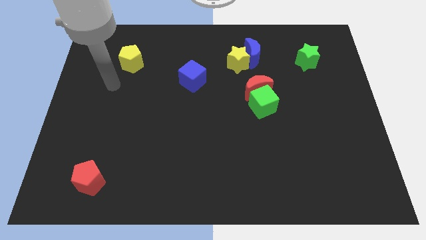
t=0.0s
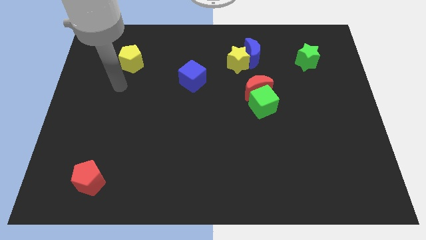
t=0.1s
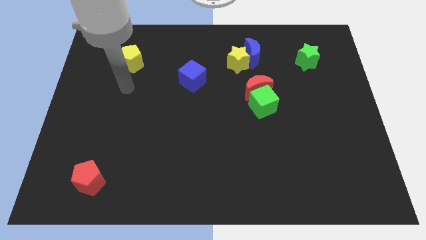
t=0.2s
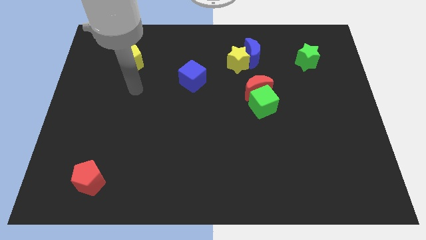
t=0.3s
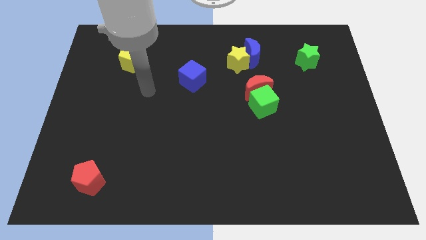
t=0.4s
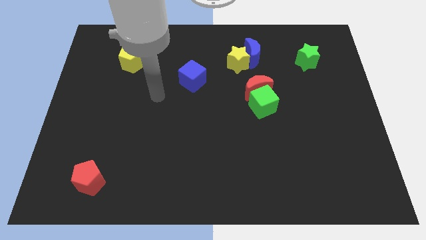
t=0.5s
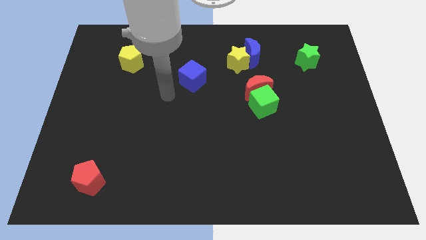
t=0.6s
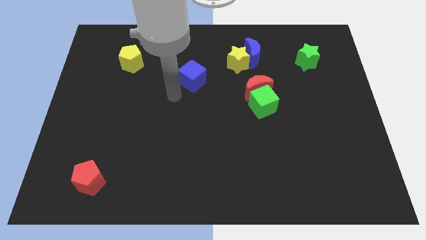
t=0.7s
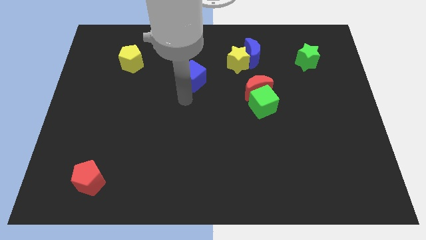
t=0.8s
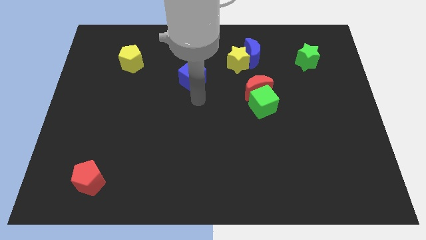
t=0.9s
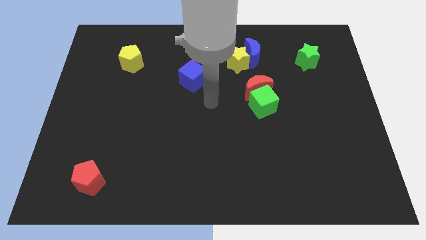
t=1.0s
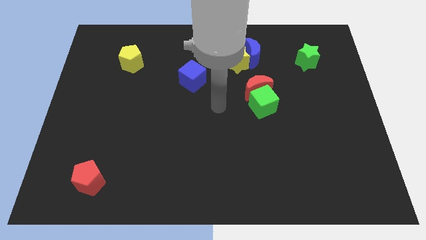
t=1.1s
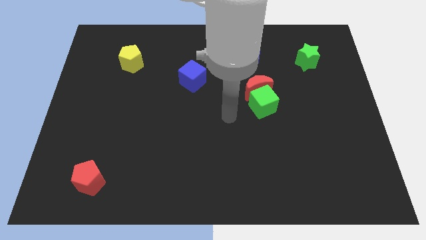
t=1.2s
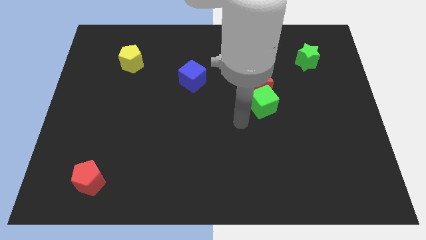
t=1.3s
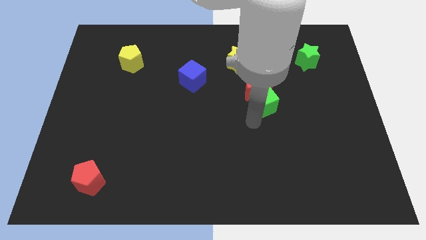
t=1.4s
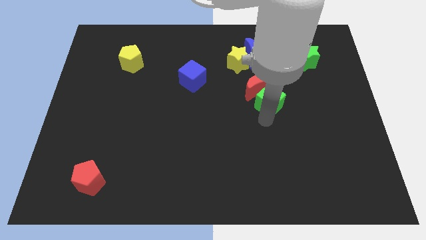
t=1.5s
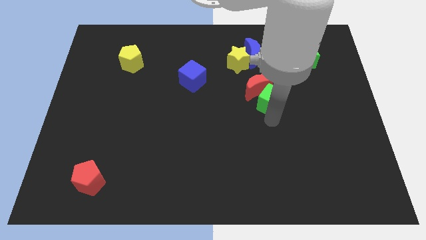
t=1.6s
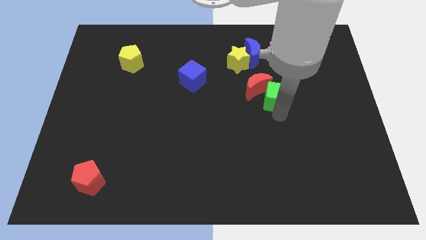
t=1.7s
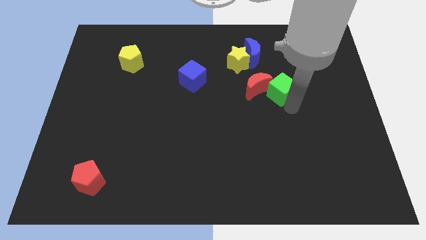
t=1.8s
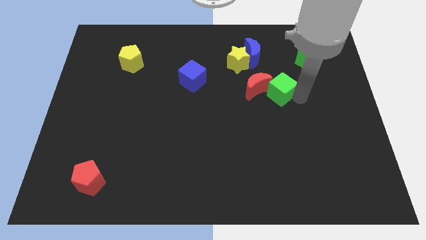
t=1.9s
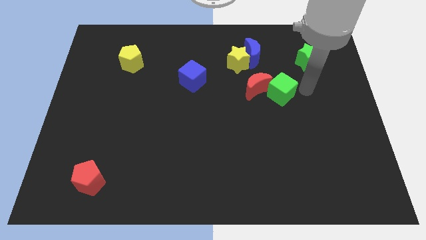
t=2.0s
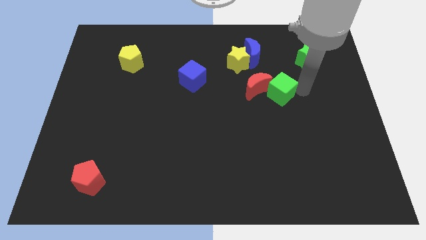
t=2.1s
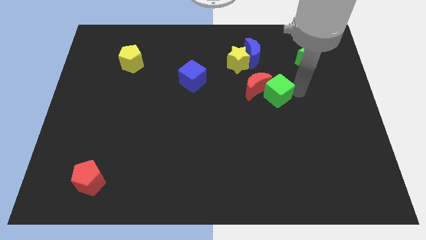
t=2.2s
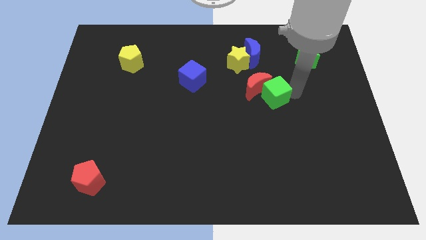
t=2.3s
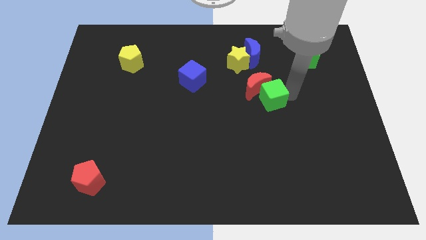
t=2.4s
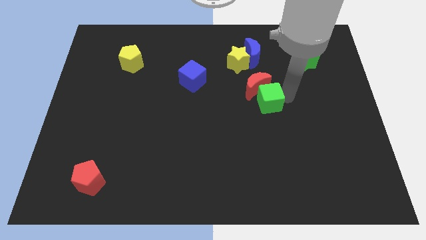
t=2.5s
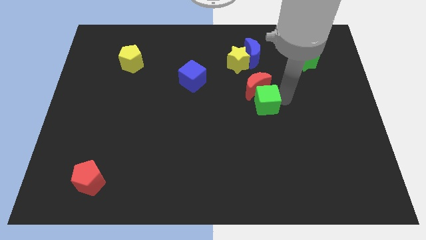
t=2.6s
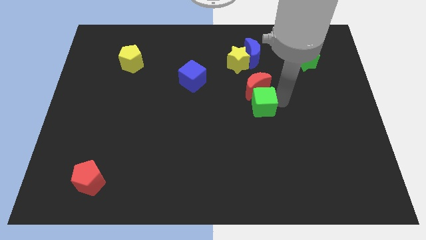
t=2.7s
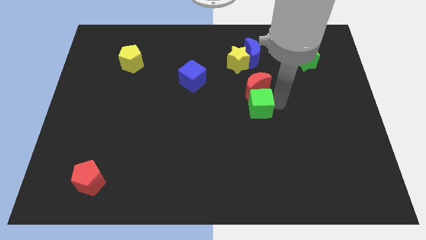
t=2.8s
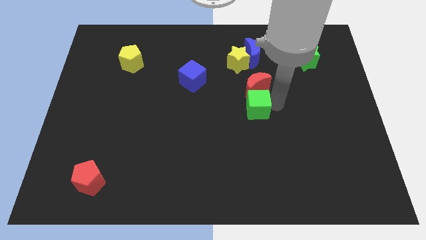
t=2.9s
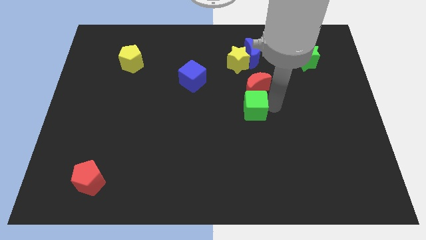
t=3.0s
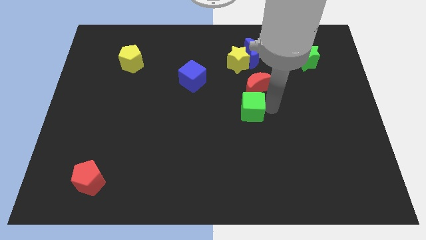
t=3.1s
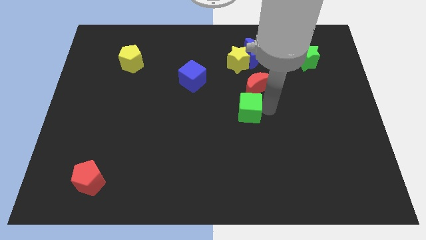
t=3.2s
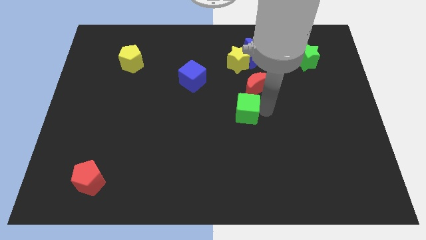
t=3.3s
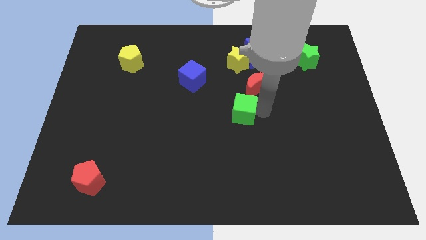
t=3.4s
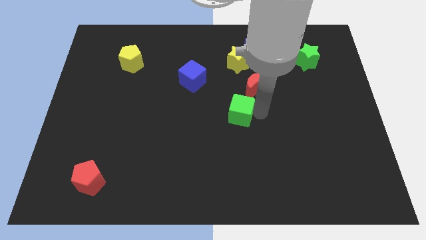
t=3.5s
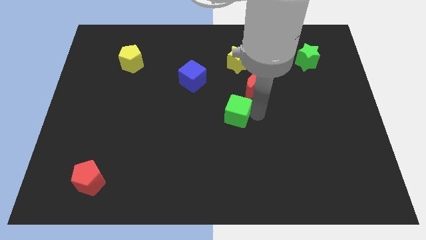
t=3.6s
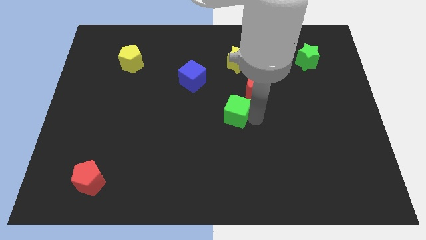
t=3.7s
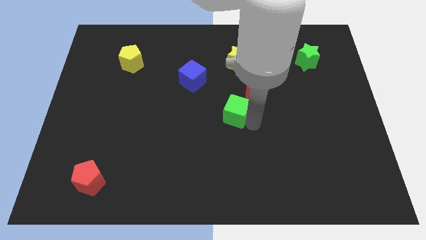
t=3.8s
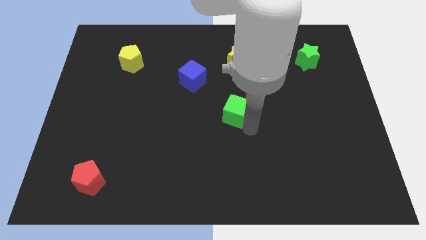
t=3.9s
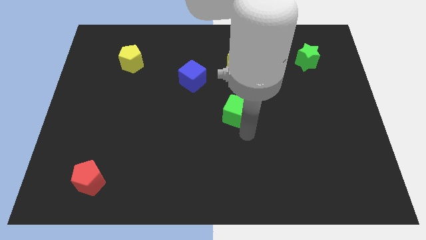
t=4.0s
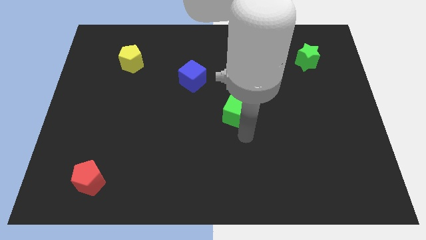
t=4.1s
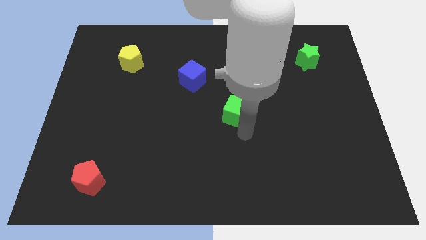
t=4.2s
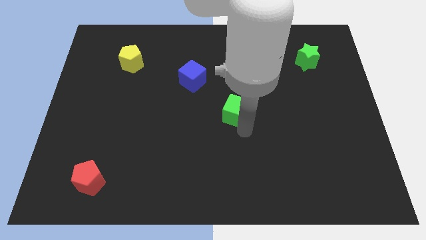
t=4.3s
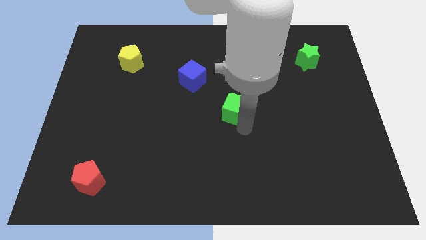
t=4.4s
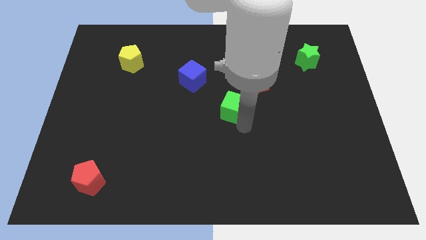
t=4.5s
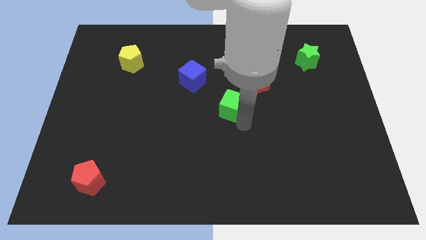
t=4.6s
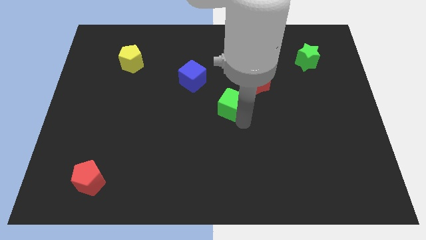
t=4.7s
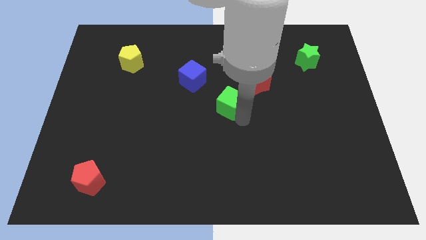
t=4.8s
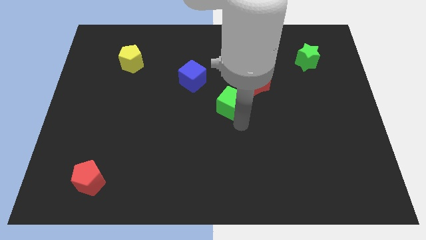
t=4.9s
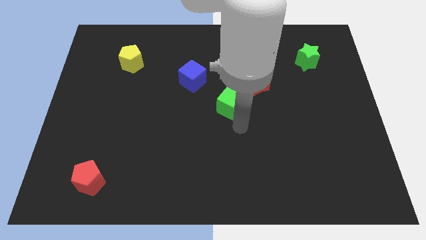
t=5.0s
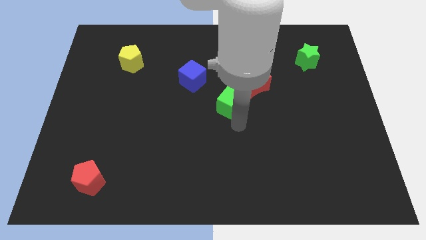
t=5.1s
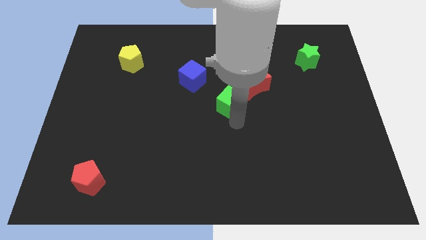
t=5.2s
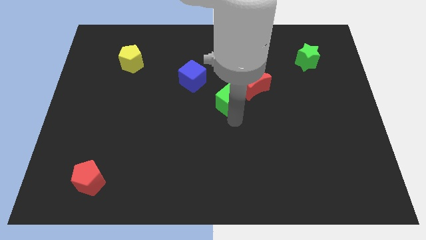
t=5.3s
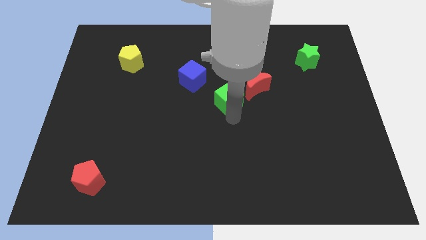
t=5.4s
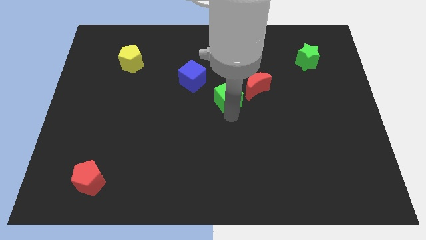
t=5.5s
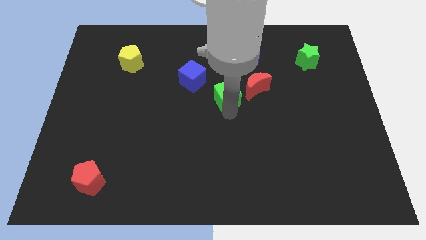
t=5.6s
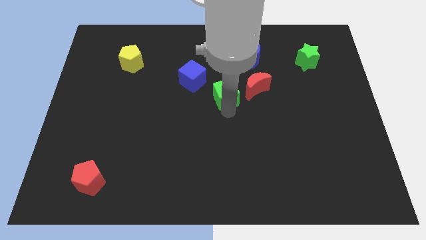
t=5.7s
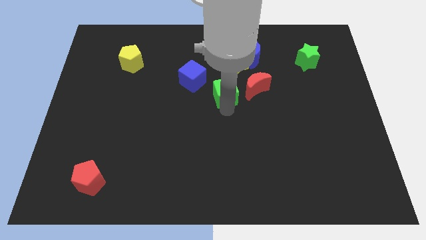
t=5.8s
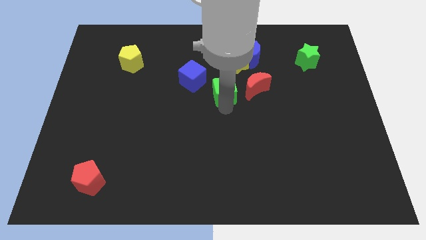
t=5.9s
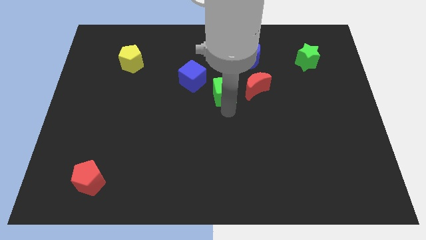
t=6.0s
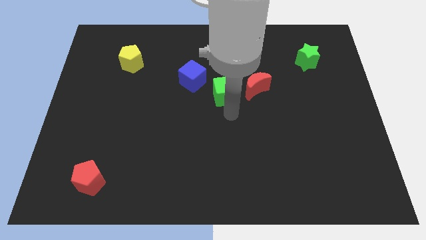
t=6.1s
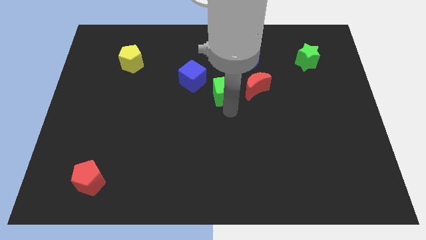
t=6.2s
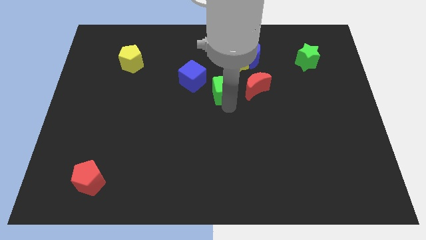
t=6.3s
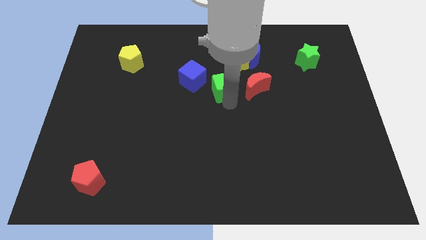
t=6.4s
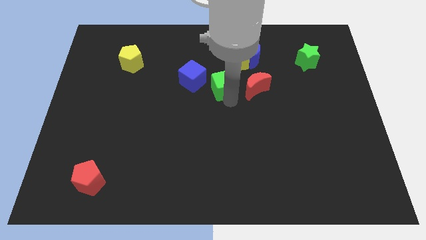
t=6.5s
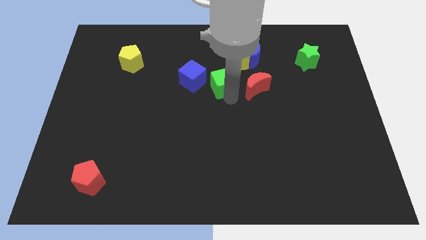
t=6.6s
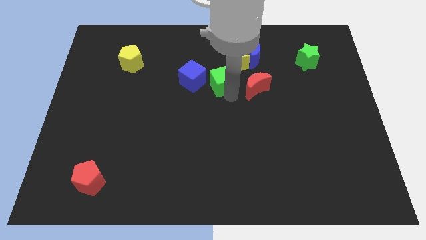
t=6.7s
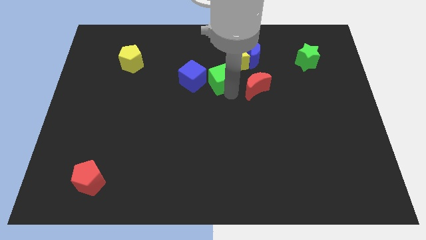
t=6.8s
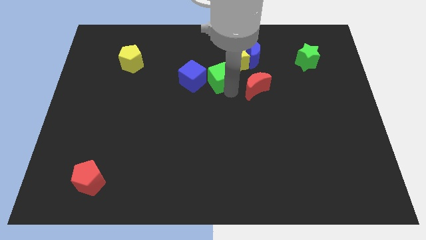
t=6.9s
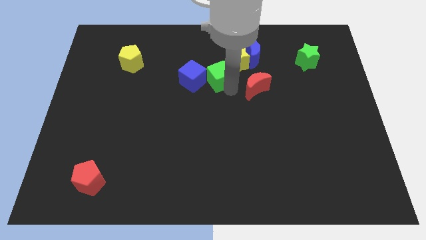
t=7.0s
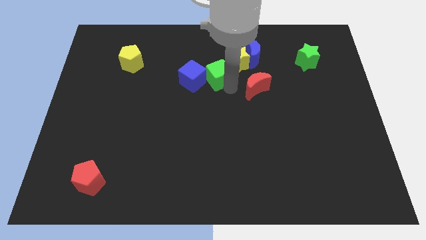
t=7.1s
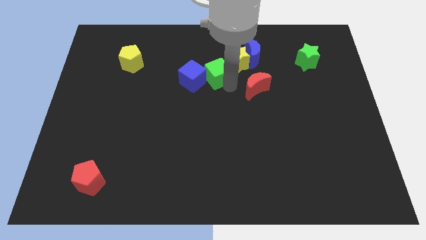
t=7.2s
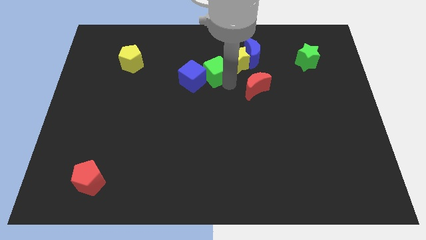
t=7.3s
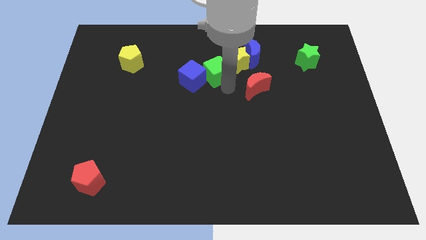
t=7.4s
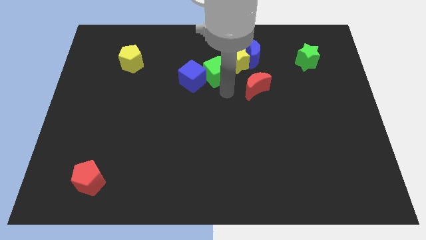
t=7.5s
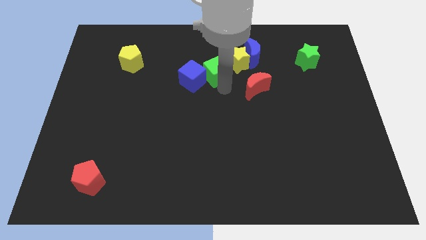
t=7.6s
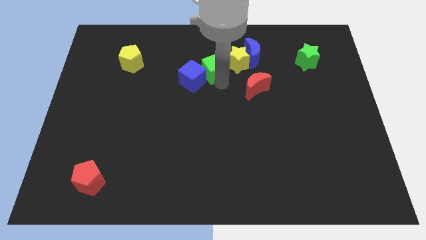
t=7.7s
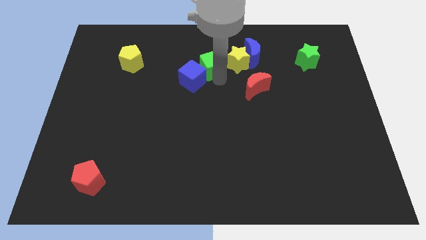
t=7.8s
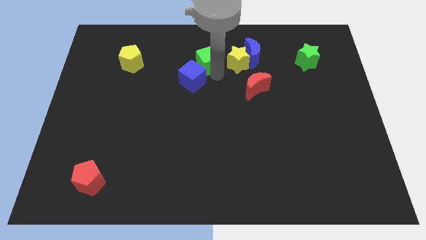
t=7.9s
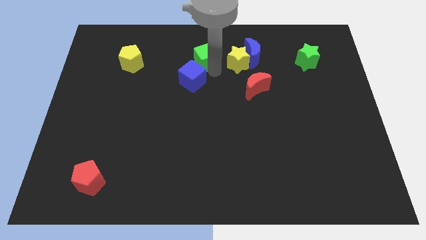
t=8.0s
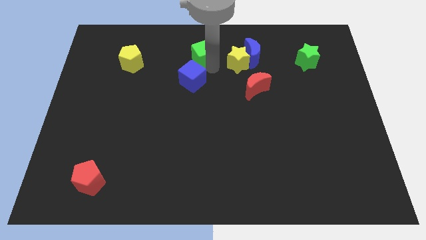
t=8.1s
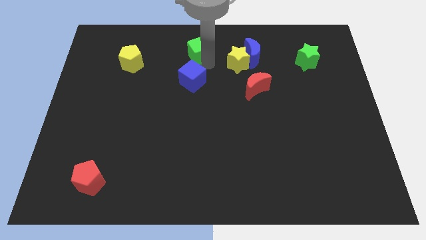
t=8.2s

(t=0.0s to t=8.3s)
slide the green cube to the top
